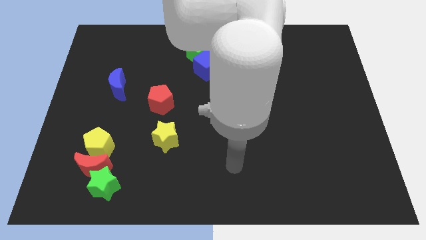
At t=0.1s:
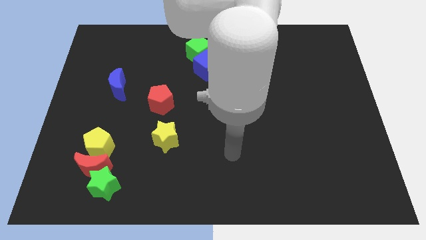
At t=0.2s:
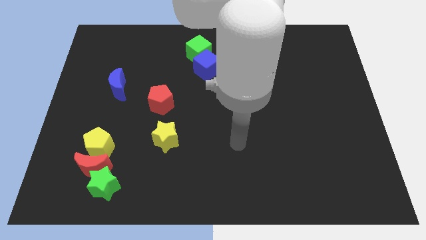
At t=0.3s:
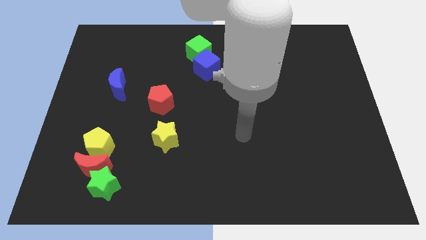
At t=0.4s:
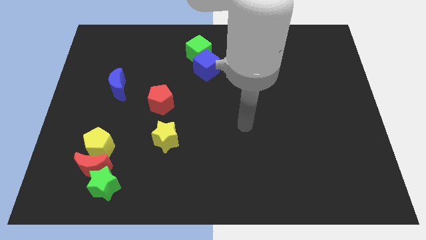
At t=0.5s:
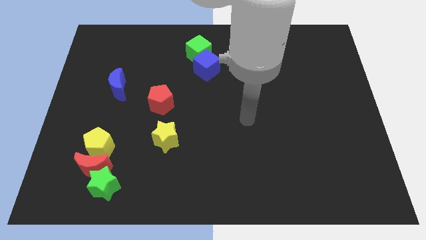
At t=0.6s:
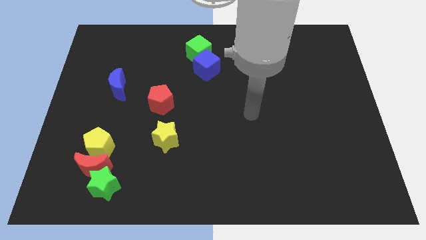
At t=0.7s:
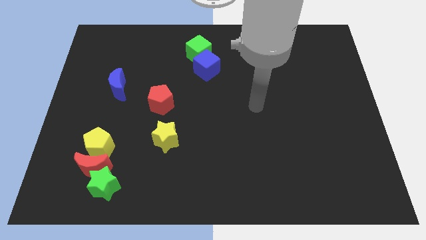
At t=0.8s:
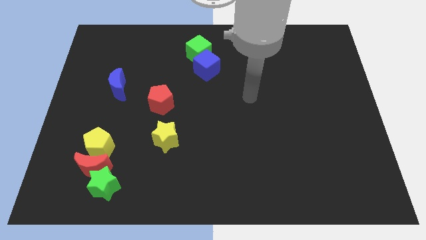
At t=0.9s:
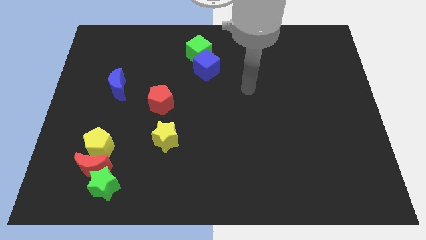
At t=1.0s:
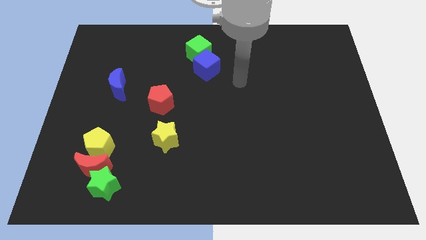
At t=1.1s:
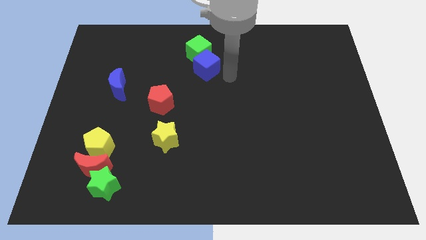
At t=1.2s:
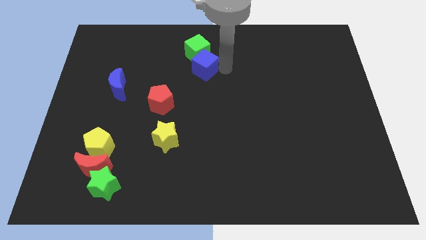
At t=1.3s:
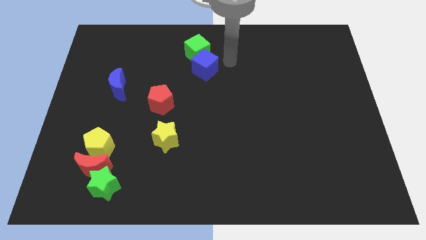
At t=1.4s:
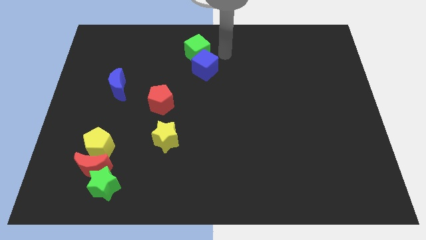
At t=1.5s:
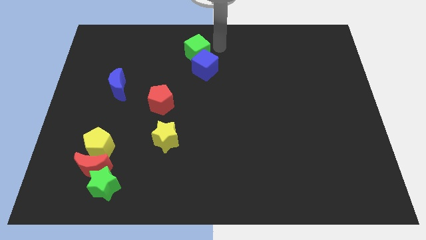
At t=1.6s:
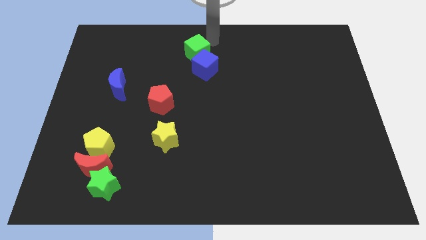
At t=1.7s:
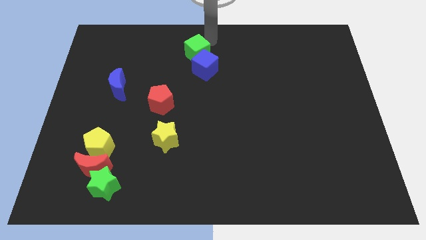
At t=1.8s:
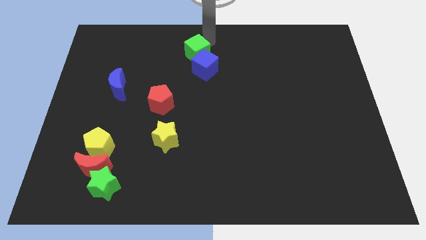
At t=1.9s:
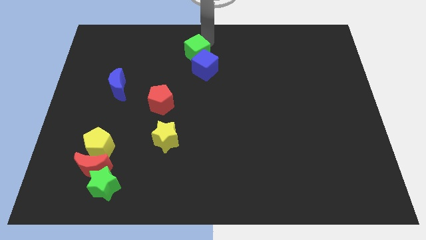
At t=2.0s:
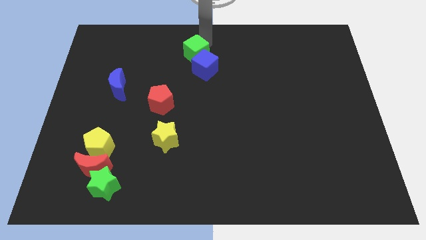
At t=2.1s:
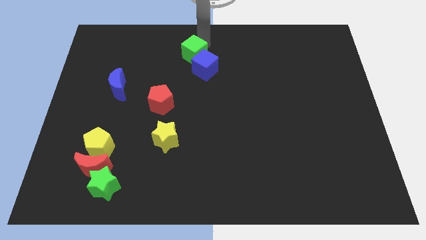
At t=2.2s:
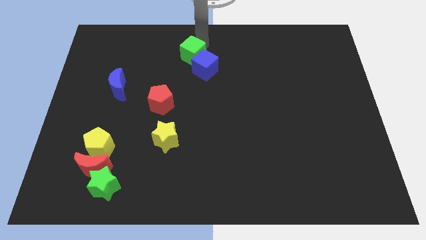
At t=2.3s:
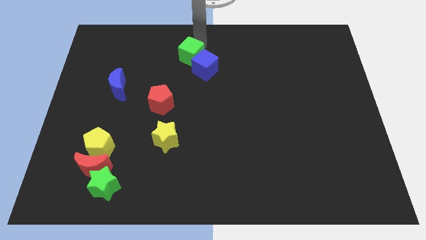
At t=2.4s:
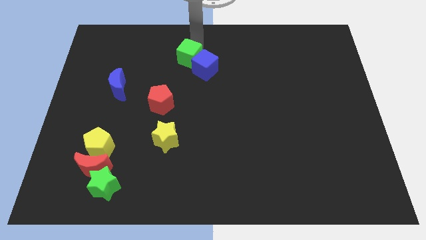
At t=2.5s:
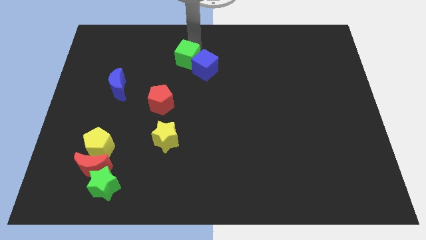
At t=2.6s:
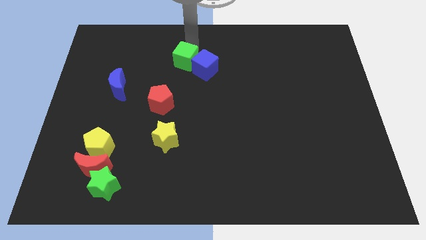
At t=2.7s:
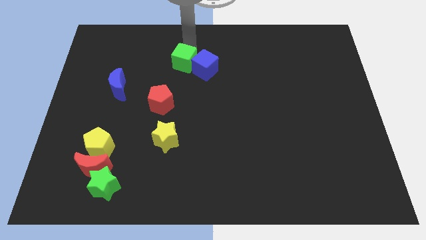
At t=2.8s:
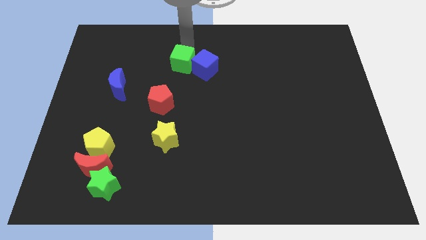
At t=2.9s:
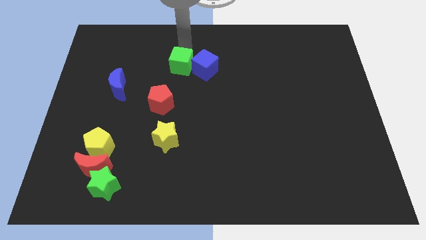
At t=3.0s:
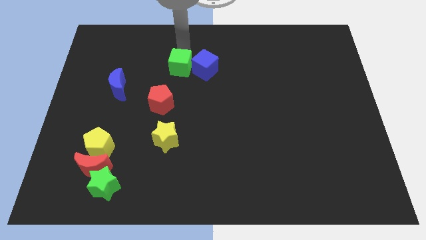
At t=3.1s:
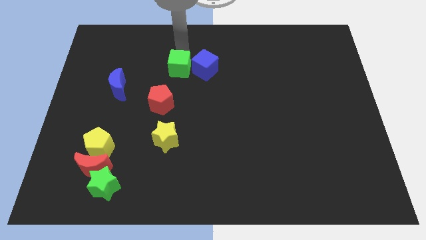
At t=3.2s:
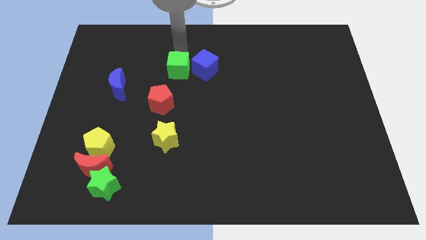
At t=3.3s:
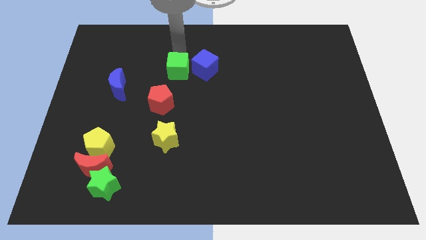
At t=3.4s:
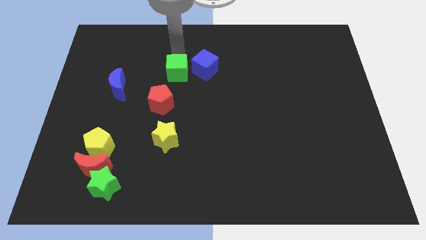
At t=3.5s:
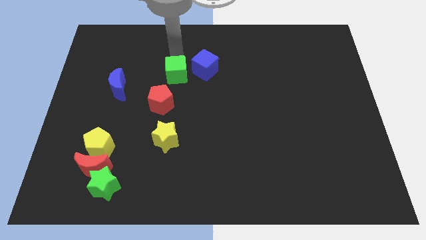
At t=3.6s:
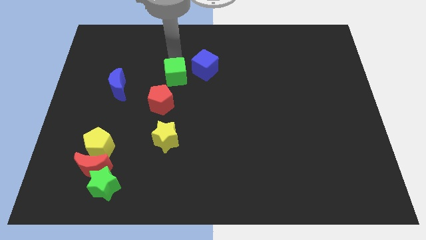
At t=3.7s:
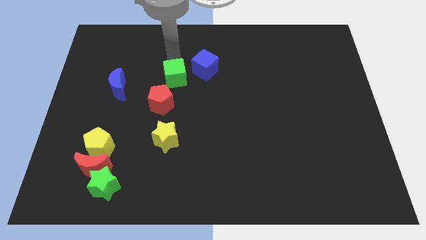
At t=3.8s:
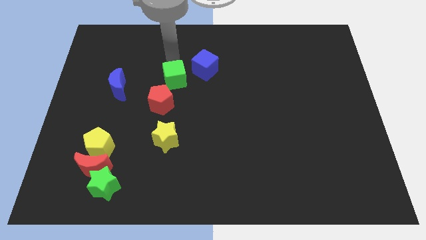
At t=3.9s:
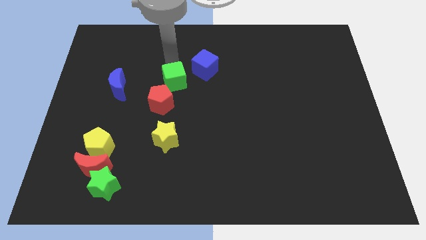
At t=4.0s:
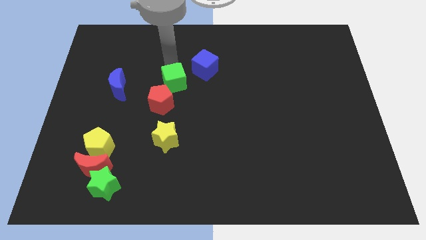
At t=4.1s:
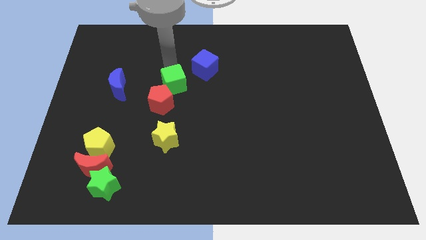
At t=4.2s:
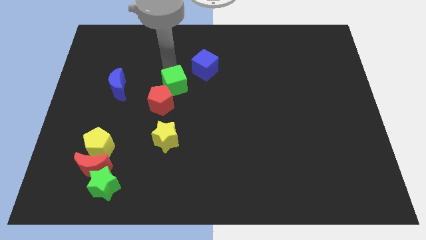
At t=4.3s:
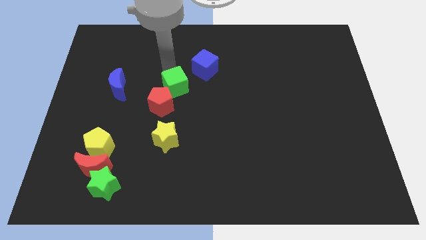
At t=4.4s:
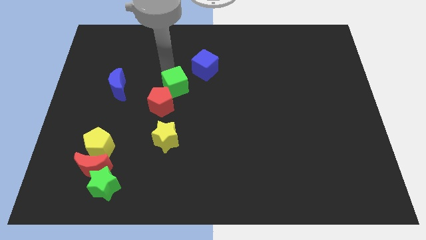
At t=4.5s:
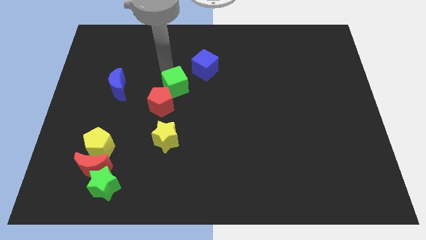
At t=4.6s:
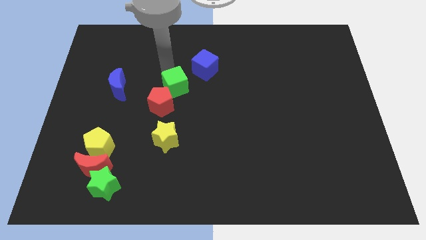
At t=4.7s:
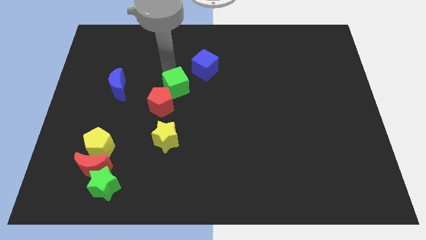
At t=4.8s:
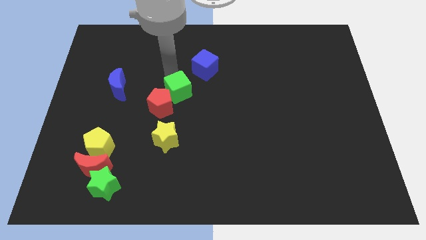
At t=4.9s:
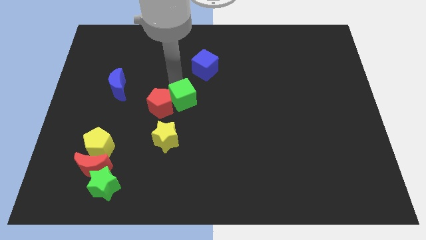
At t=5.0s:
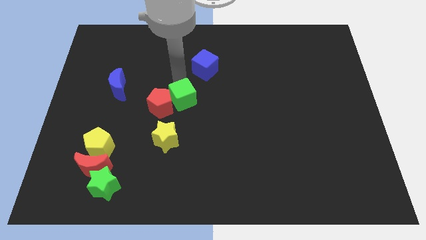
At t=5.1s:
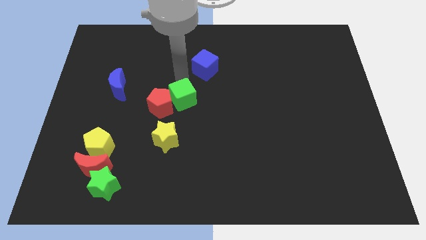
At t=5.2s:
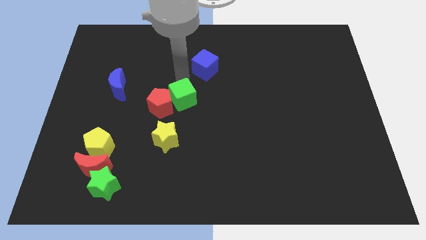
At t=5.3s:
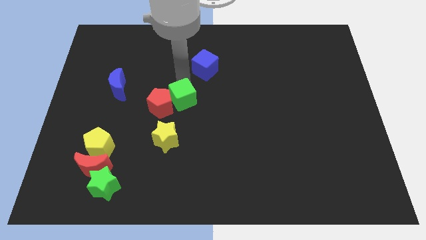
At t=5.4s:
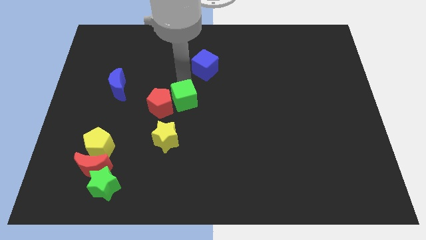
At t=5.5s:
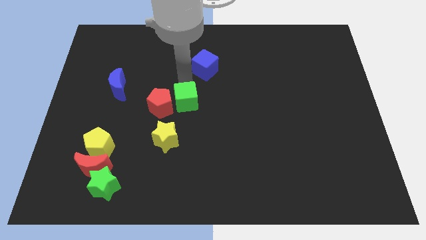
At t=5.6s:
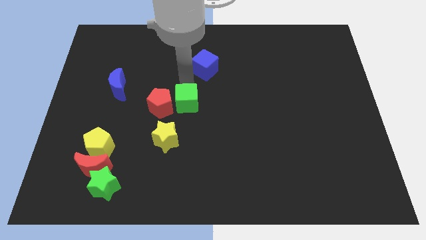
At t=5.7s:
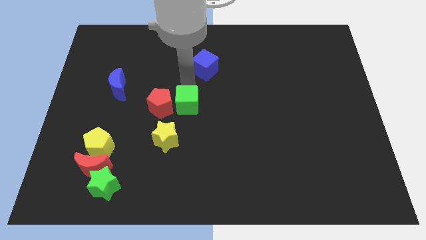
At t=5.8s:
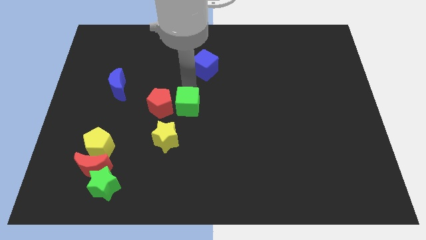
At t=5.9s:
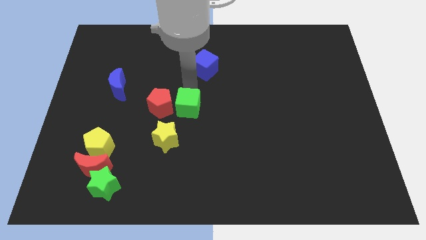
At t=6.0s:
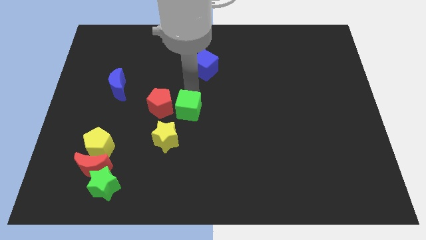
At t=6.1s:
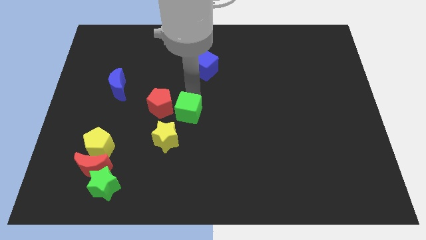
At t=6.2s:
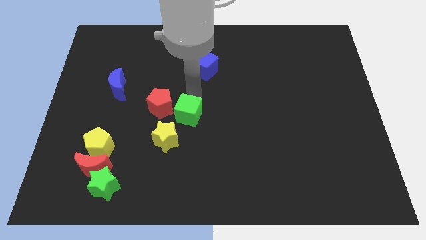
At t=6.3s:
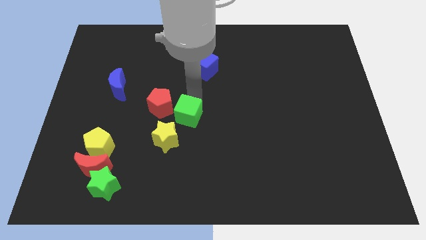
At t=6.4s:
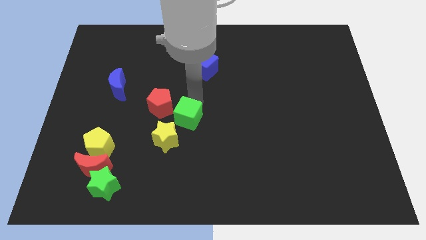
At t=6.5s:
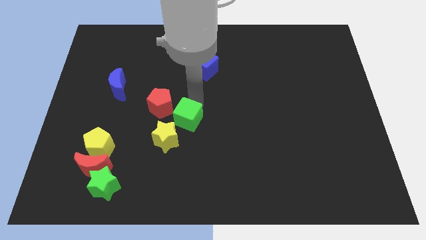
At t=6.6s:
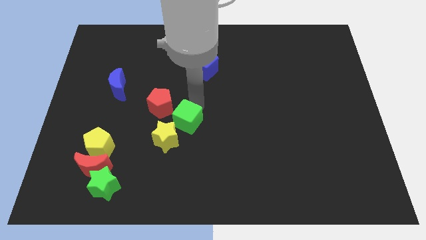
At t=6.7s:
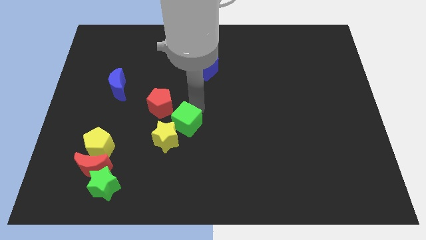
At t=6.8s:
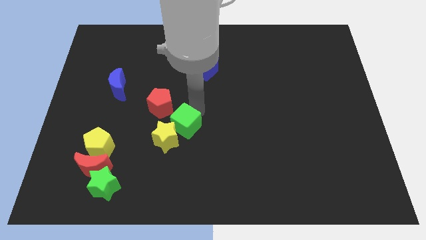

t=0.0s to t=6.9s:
put the green cube to the yellow star

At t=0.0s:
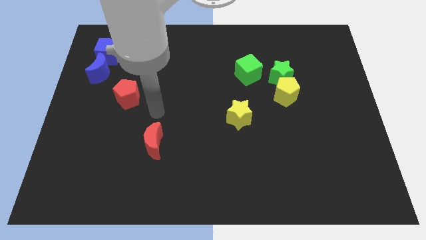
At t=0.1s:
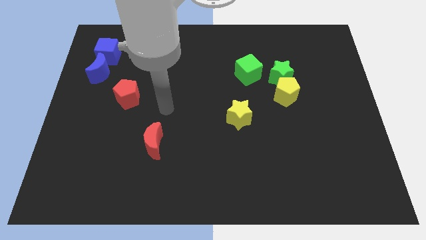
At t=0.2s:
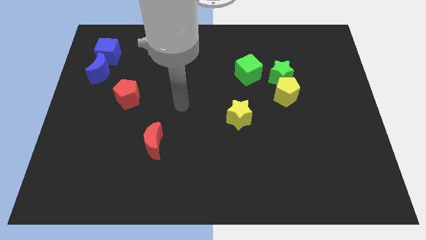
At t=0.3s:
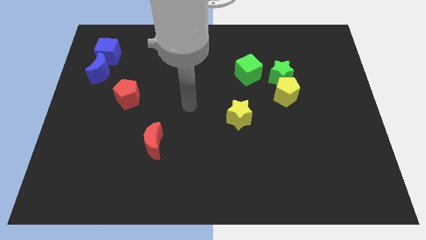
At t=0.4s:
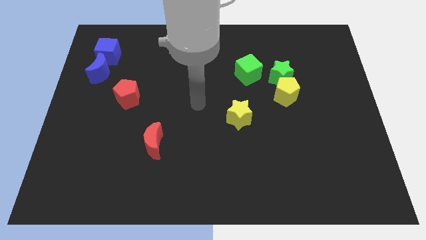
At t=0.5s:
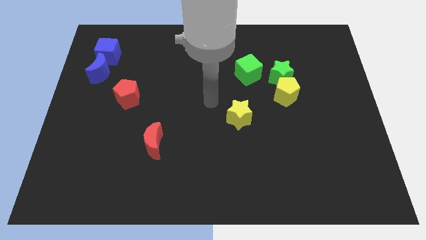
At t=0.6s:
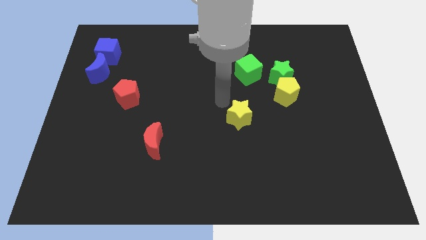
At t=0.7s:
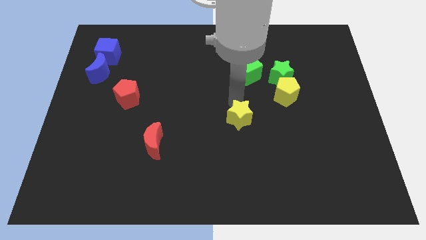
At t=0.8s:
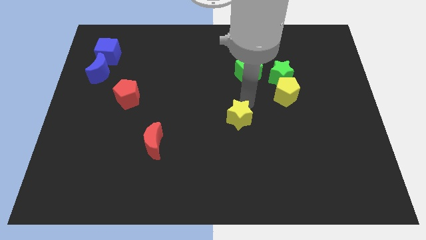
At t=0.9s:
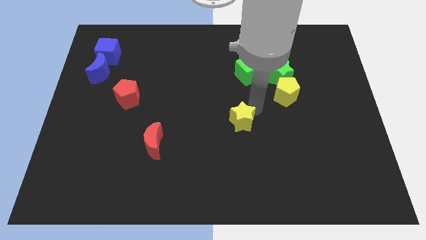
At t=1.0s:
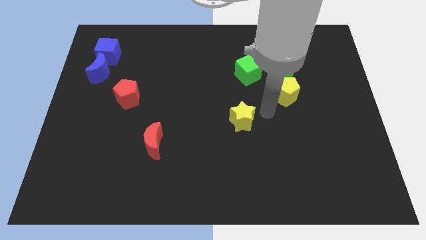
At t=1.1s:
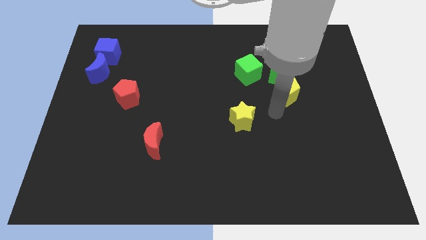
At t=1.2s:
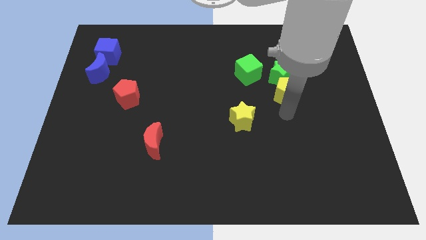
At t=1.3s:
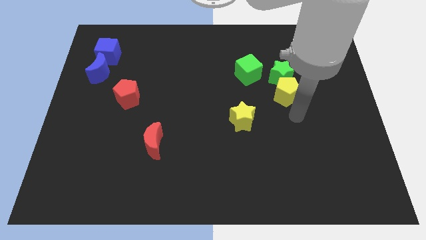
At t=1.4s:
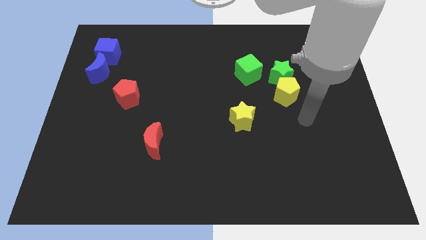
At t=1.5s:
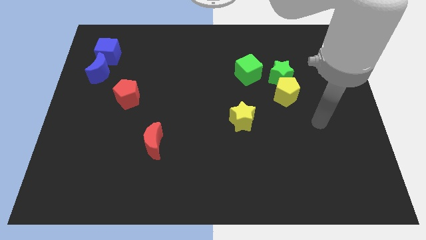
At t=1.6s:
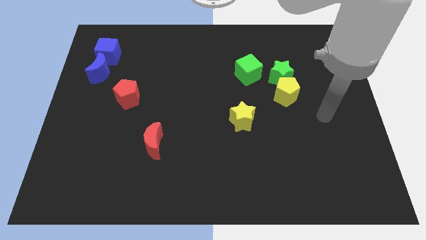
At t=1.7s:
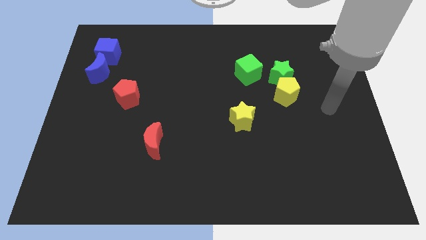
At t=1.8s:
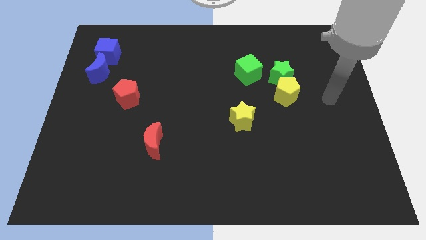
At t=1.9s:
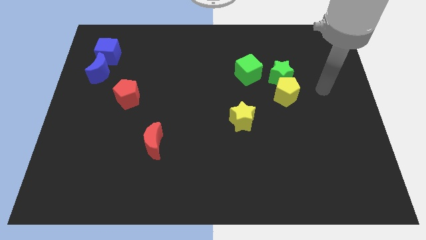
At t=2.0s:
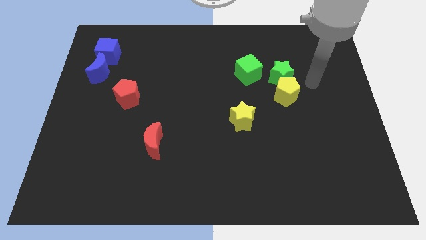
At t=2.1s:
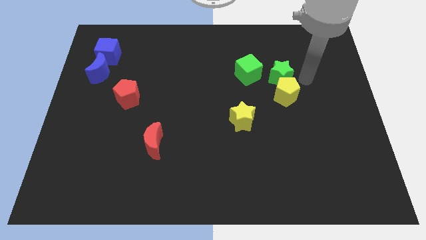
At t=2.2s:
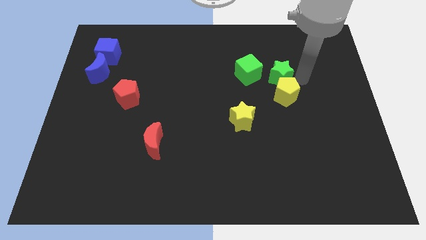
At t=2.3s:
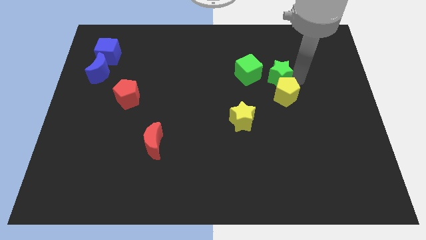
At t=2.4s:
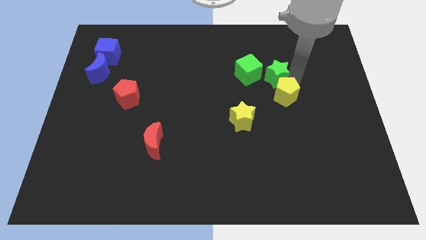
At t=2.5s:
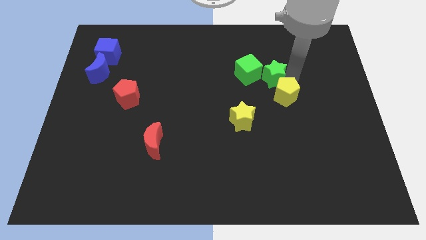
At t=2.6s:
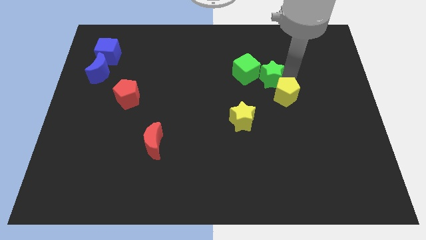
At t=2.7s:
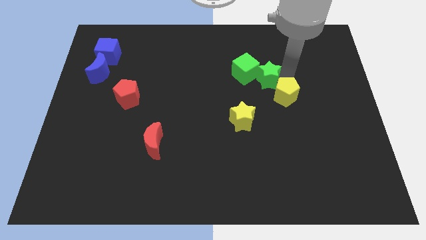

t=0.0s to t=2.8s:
slide the green star close to the green cube
